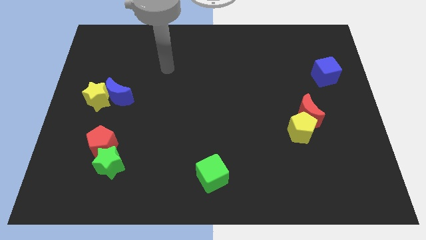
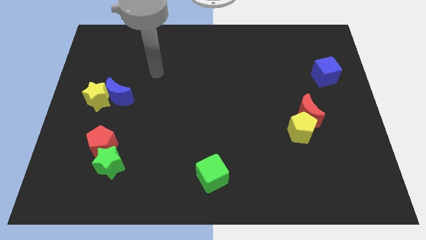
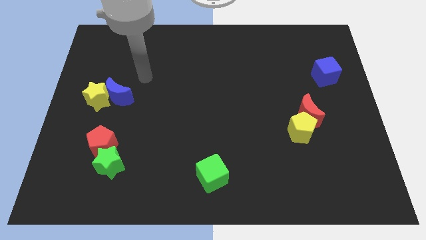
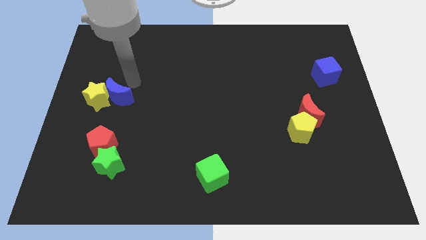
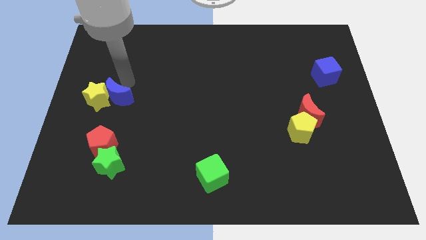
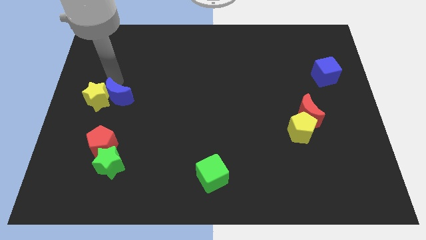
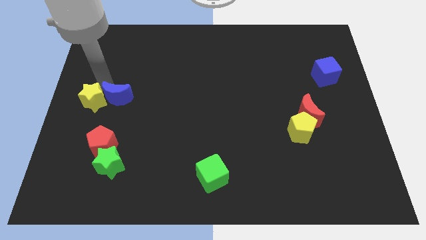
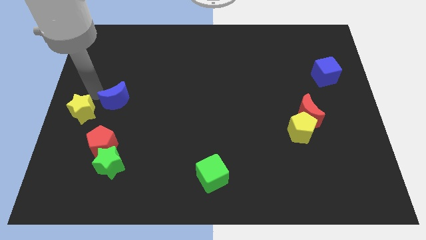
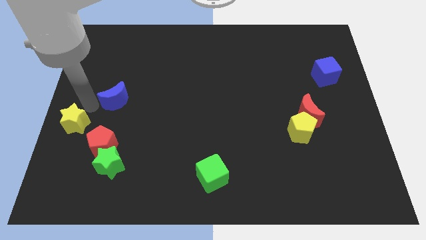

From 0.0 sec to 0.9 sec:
separate the blue moon from the yellow star

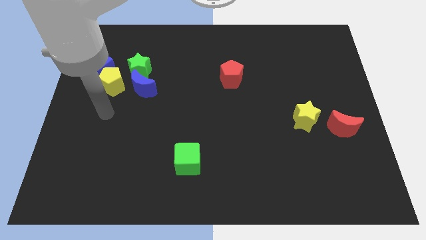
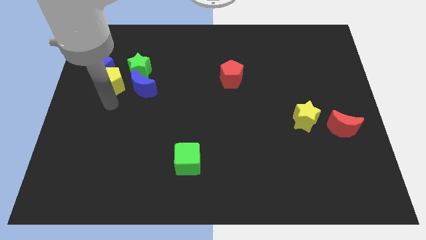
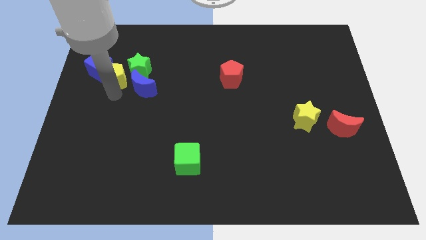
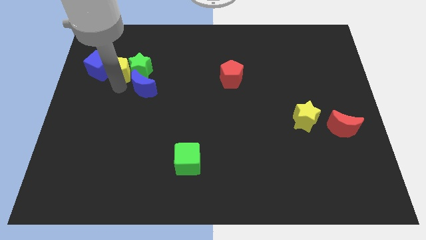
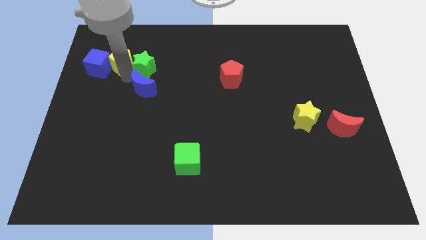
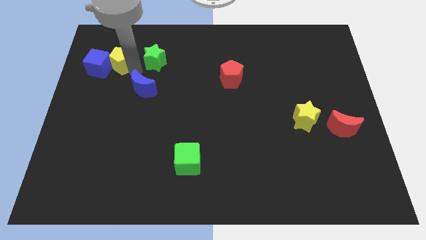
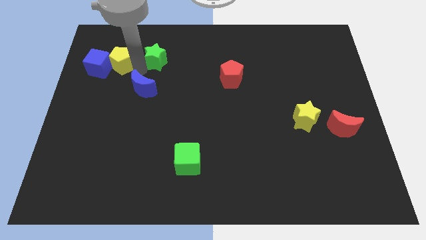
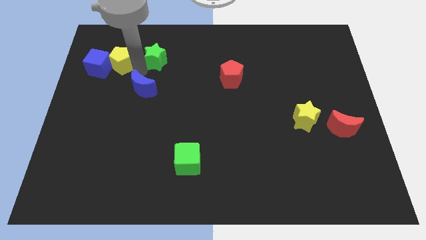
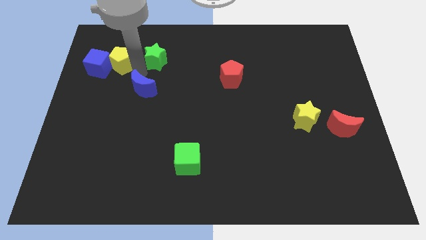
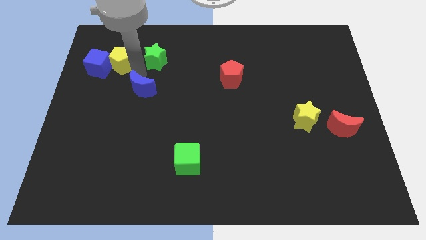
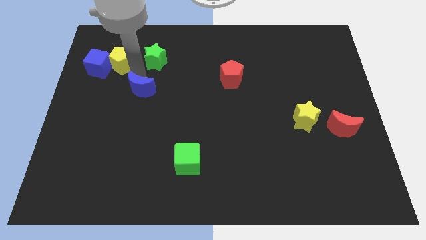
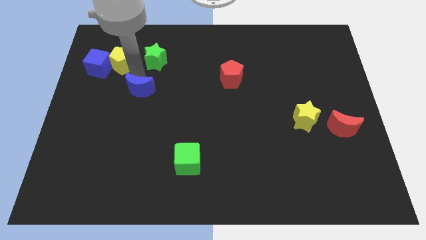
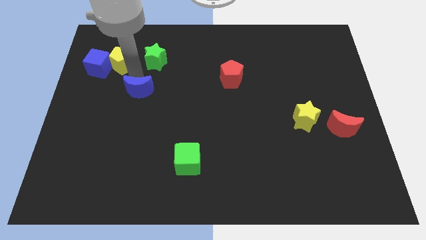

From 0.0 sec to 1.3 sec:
separate the blue moon from the green star and yellow pentagon

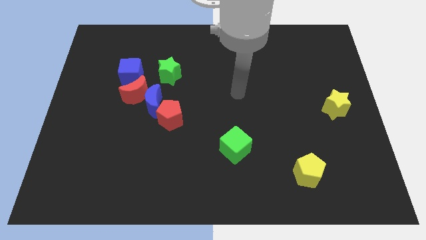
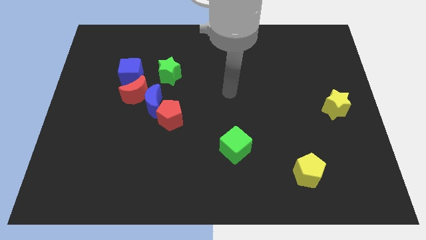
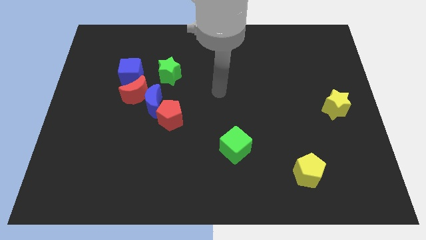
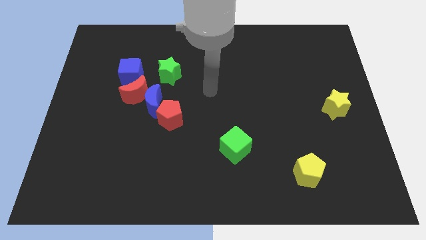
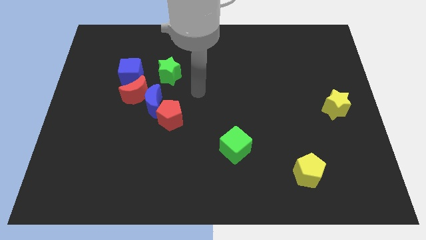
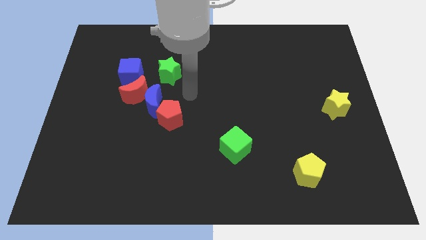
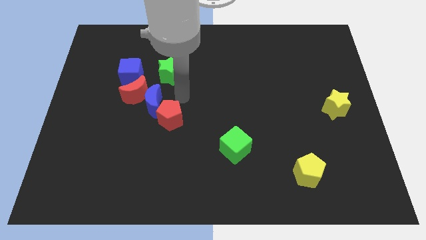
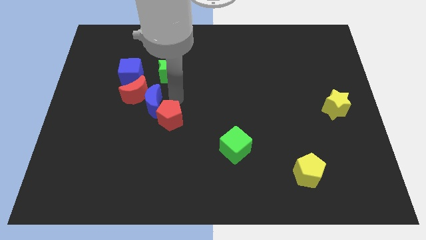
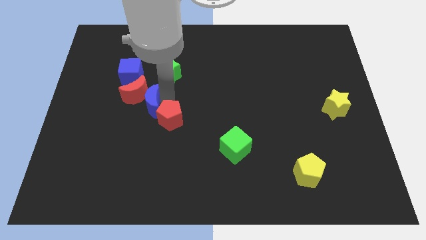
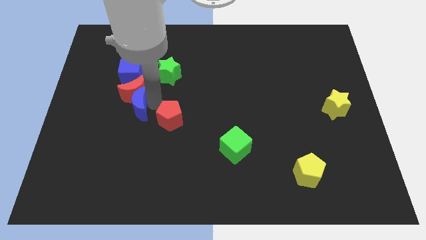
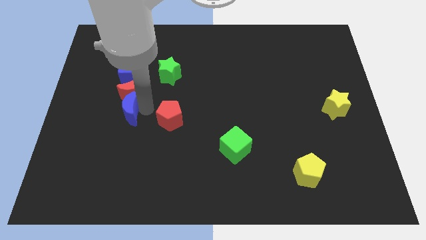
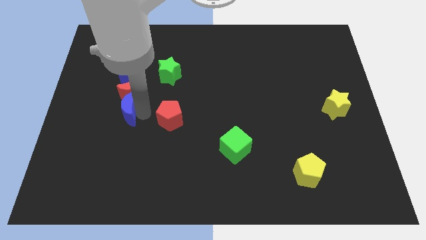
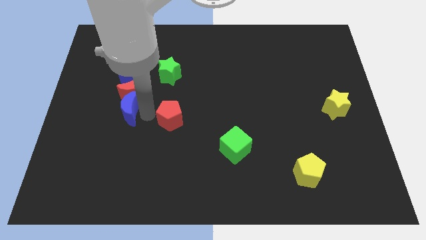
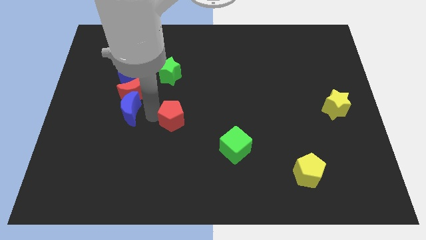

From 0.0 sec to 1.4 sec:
move the red pentagon away from the blue moon

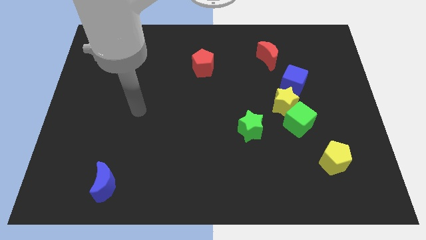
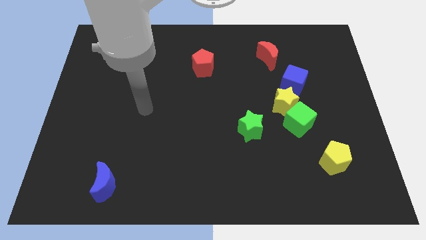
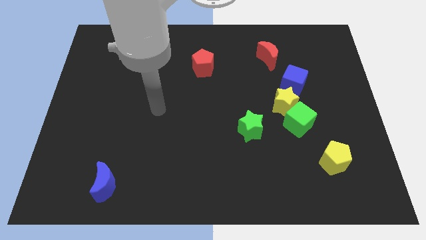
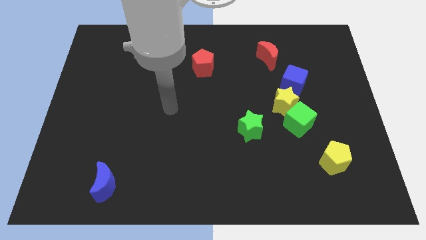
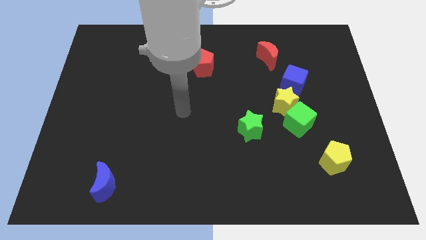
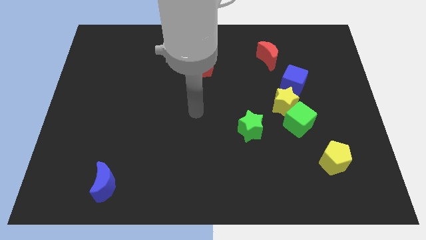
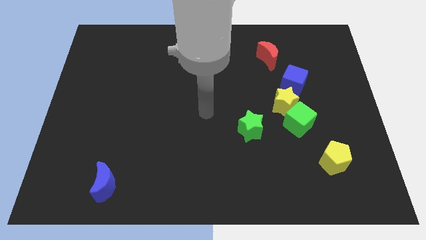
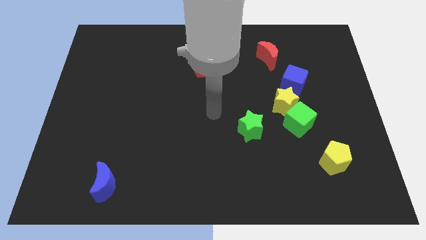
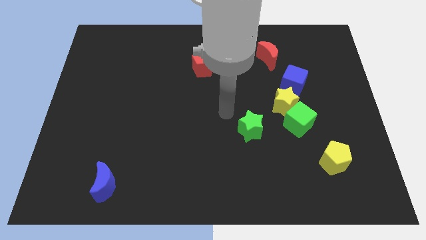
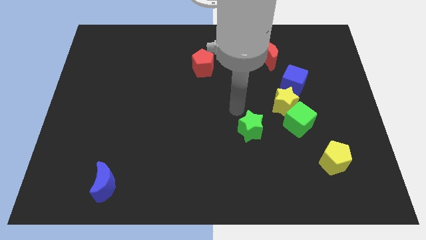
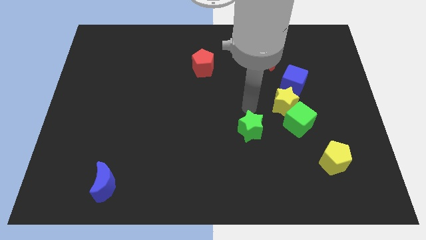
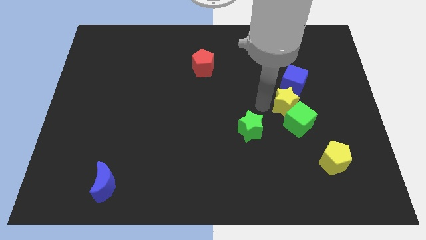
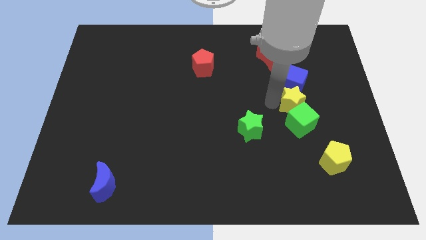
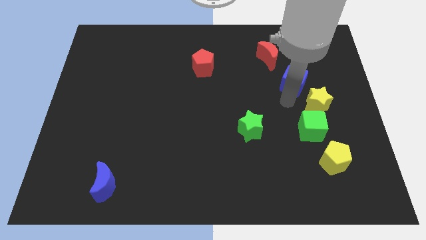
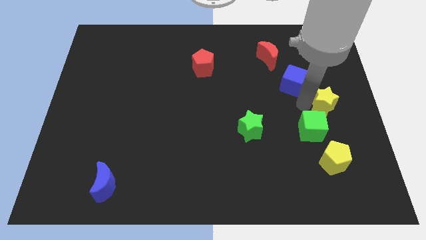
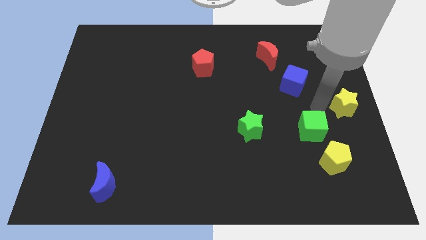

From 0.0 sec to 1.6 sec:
move the green cube away from the yellow star

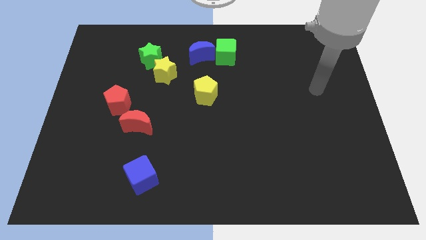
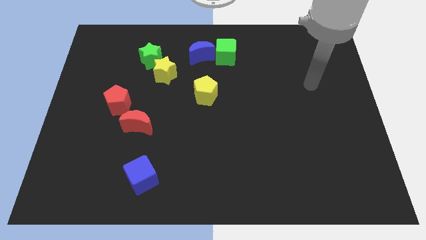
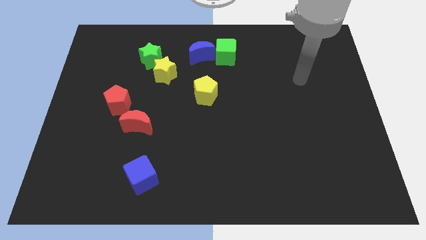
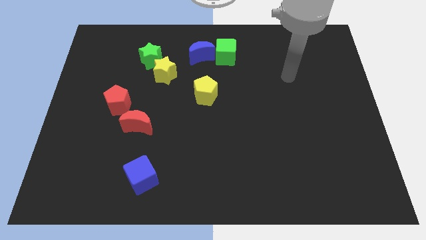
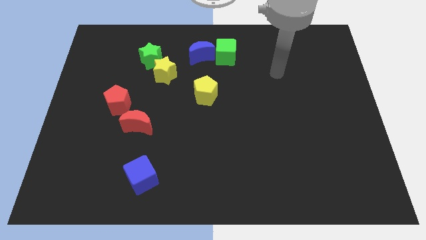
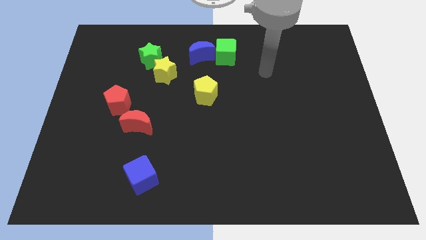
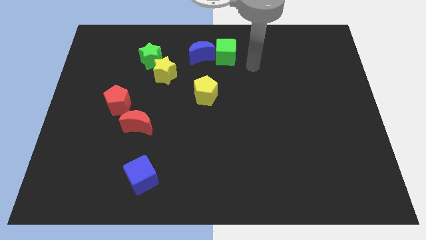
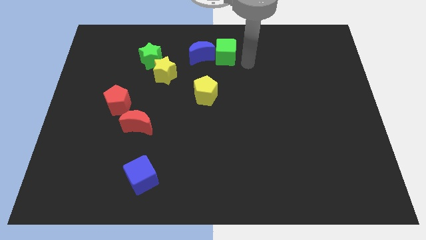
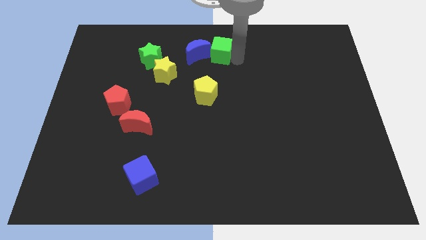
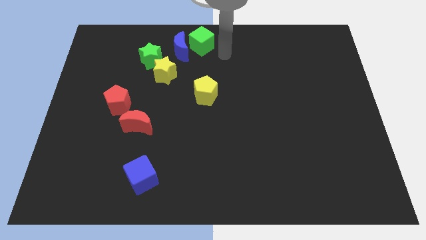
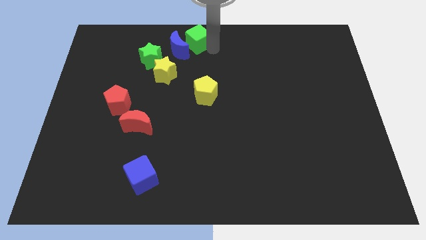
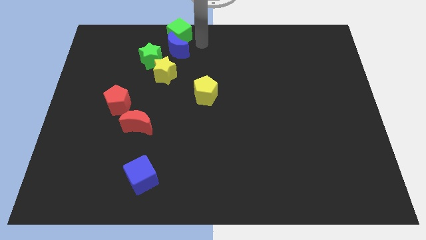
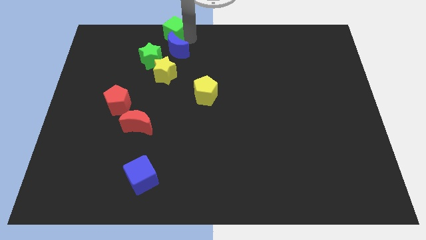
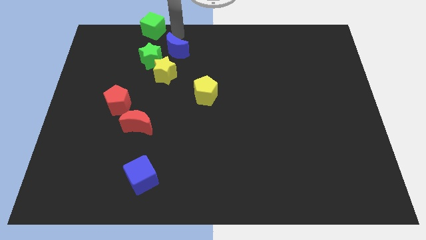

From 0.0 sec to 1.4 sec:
separate the blue moon from the green cube

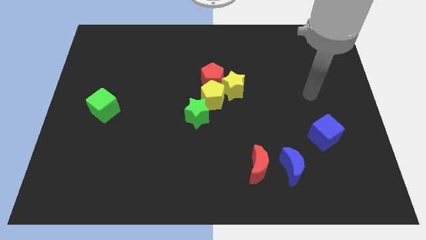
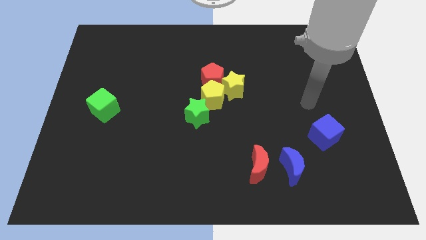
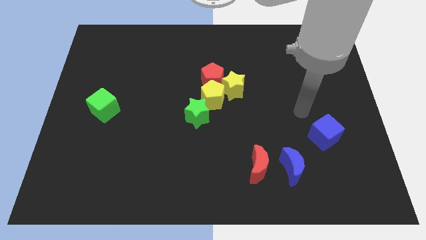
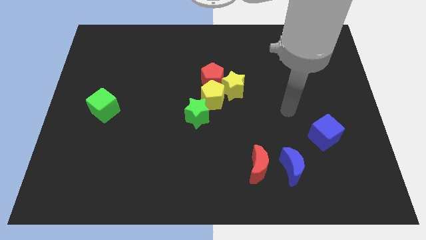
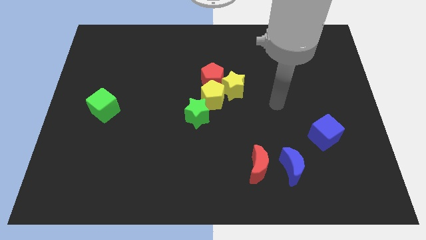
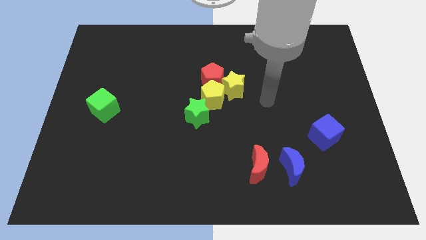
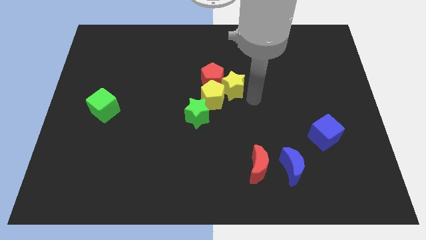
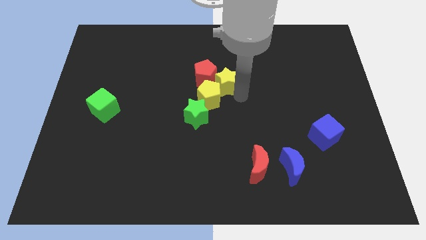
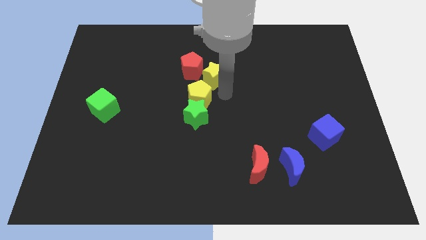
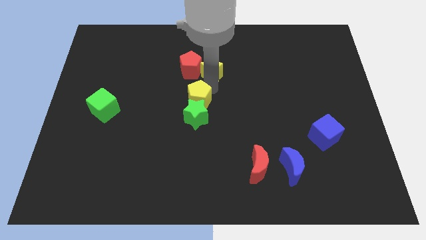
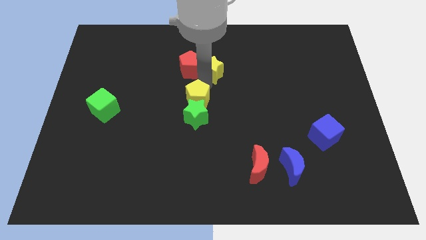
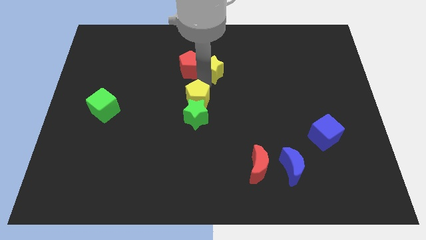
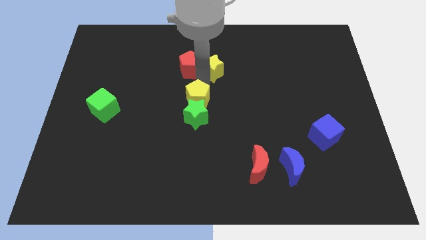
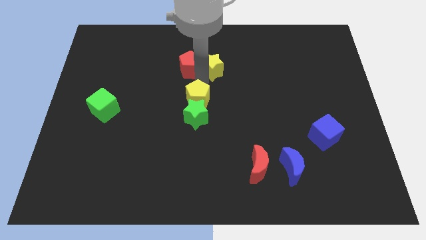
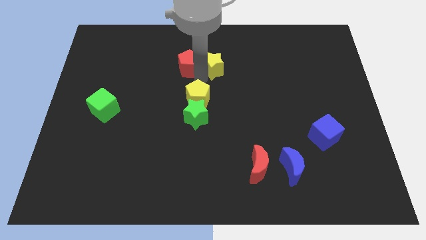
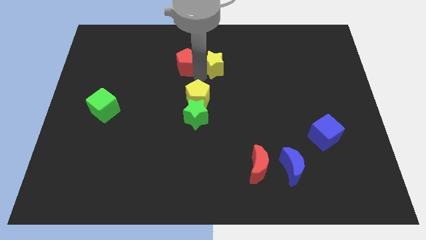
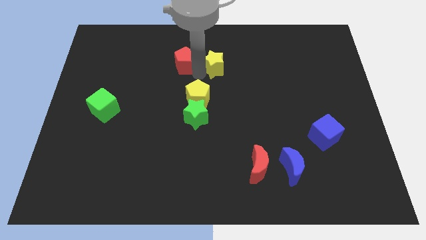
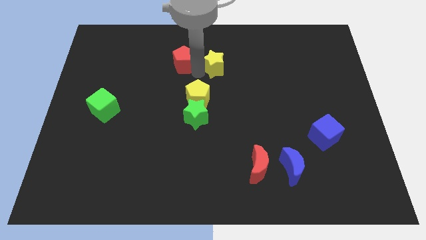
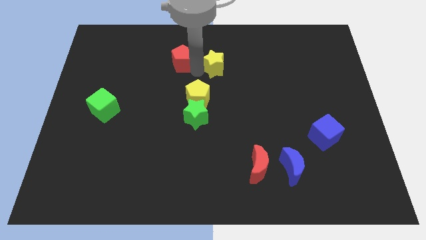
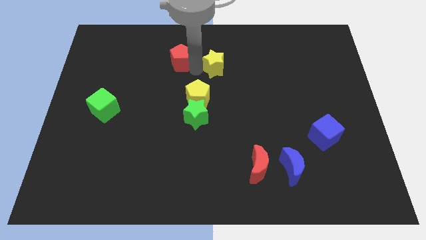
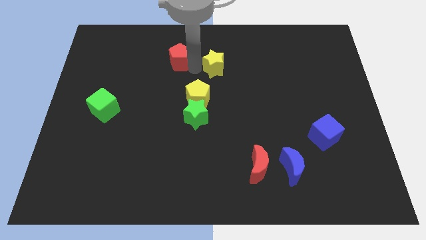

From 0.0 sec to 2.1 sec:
move the red pentagon away from the yellow pentagon and yellow star

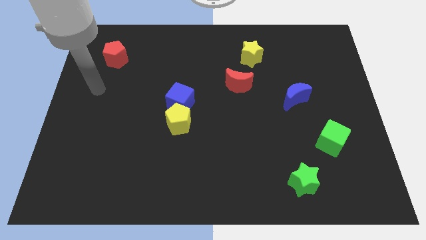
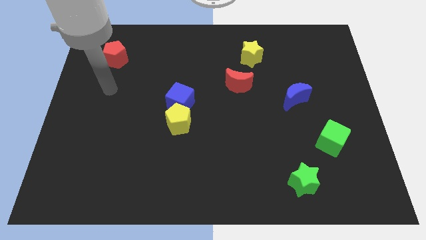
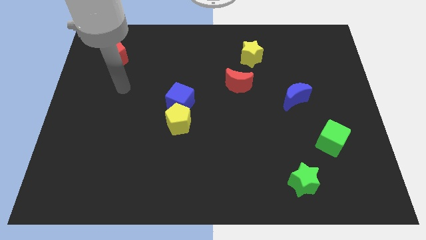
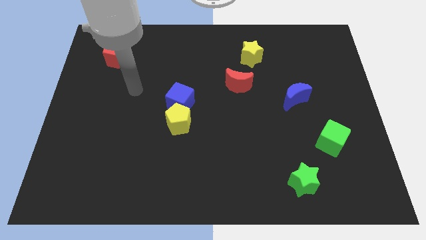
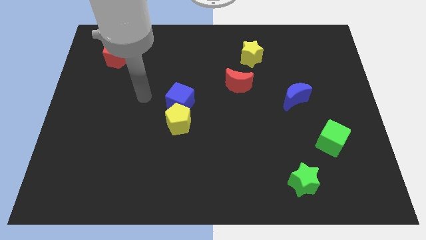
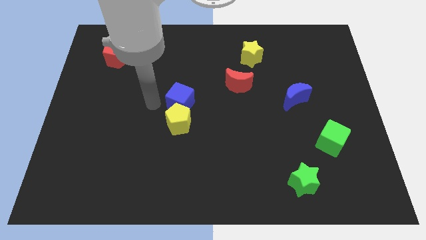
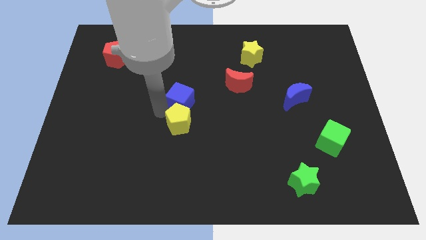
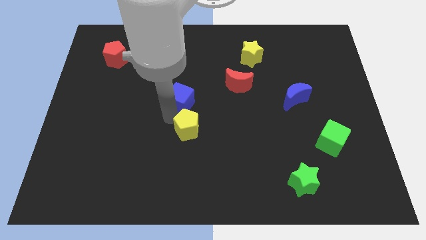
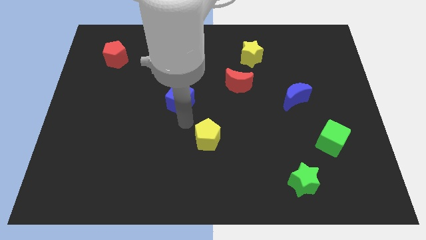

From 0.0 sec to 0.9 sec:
separate the blue cube from the yellow pentagon
